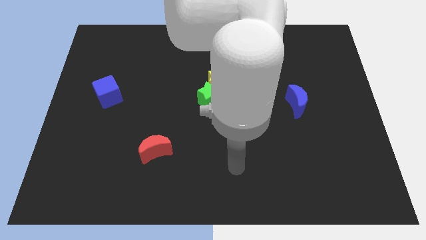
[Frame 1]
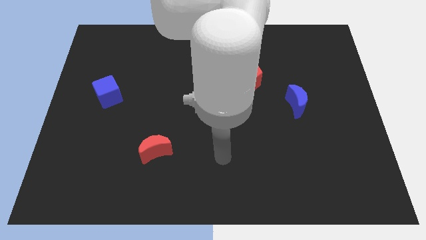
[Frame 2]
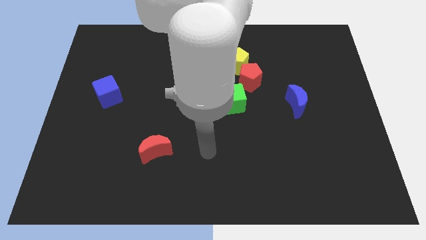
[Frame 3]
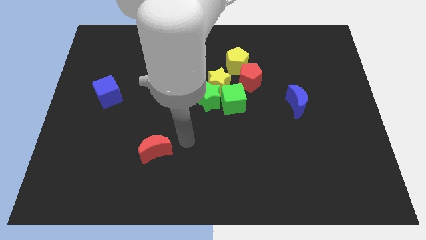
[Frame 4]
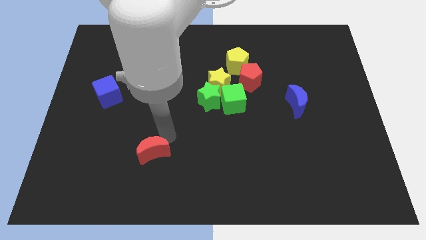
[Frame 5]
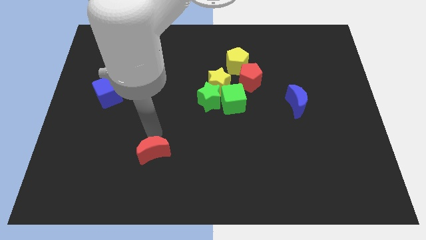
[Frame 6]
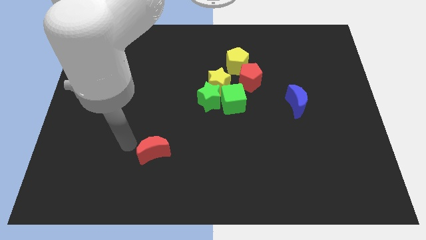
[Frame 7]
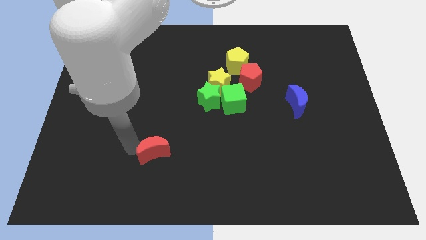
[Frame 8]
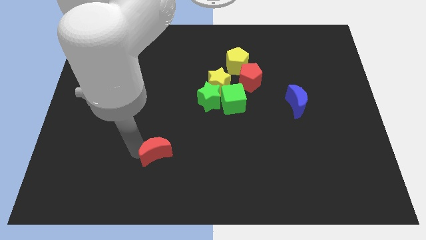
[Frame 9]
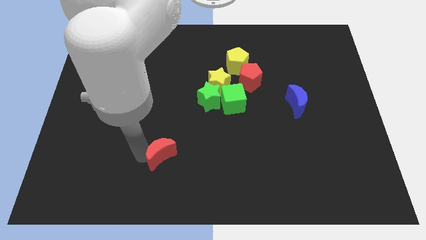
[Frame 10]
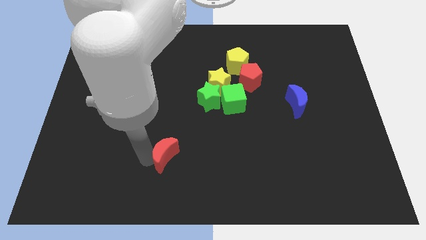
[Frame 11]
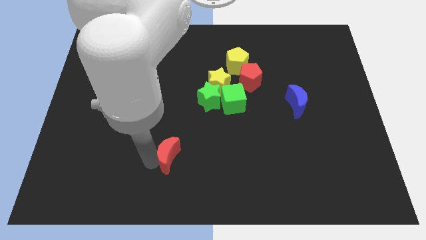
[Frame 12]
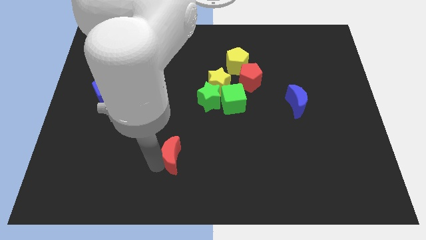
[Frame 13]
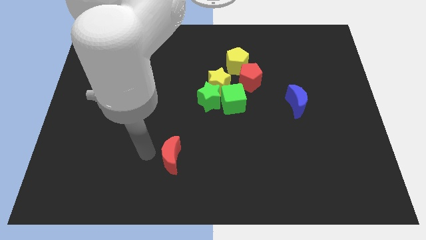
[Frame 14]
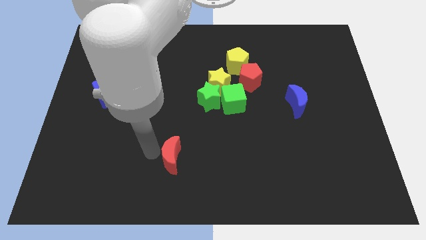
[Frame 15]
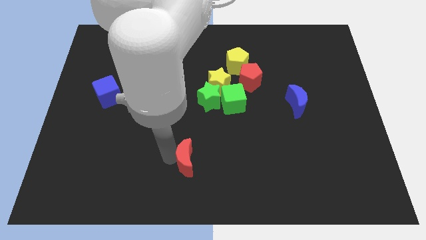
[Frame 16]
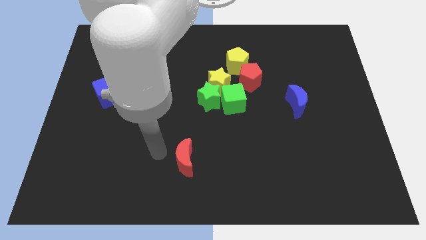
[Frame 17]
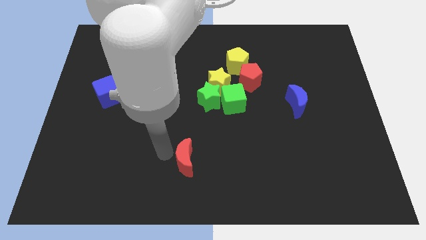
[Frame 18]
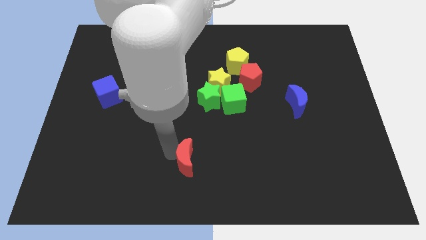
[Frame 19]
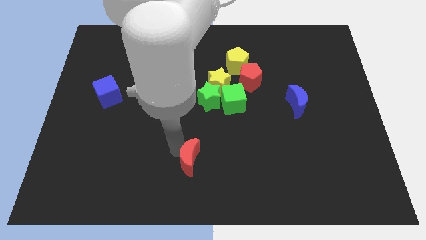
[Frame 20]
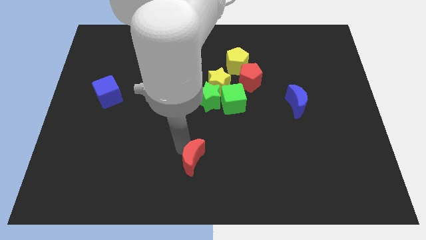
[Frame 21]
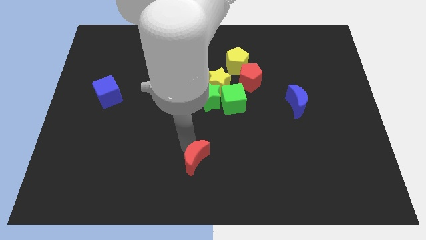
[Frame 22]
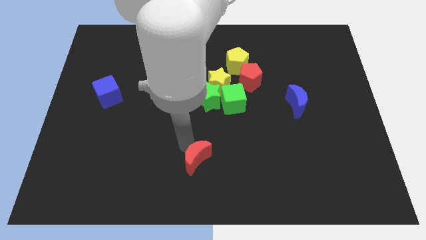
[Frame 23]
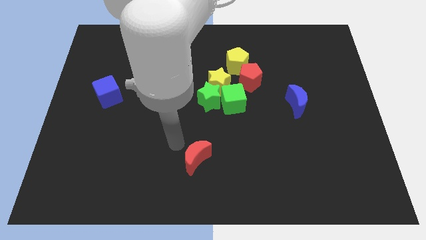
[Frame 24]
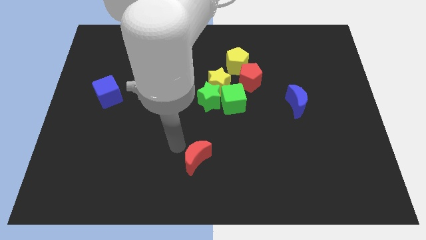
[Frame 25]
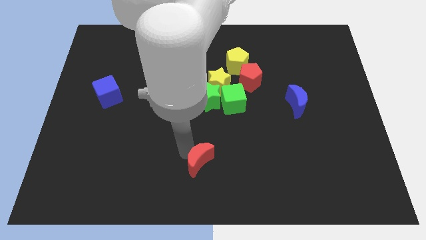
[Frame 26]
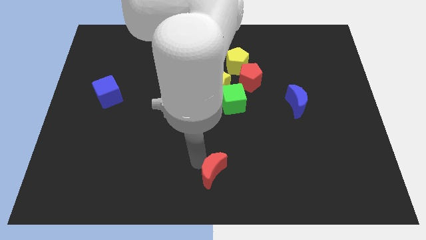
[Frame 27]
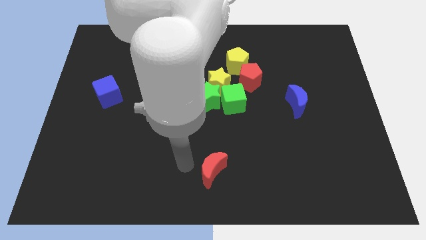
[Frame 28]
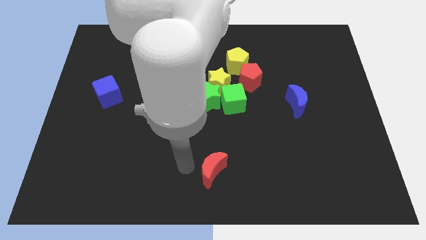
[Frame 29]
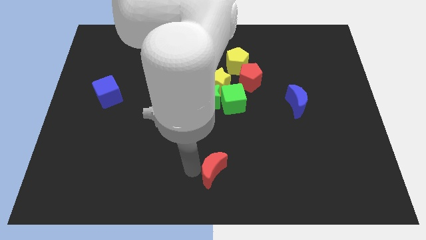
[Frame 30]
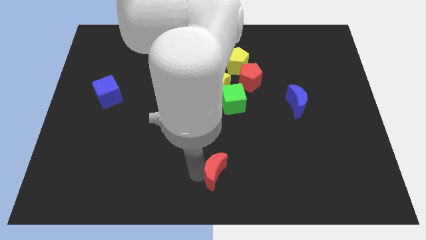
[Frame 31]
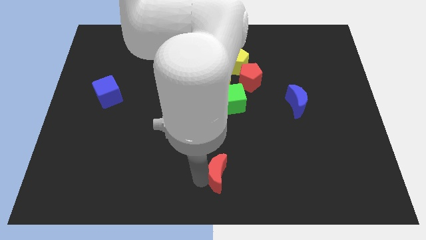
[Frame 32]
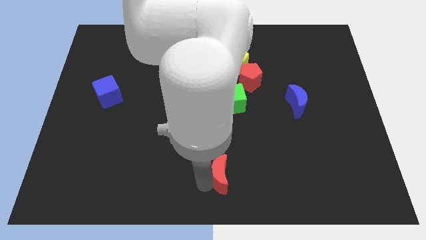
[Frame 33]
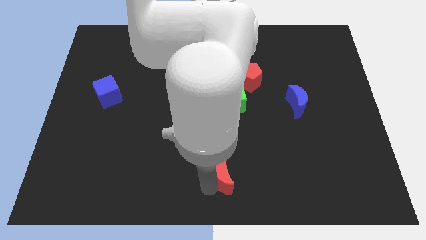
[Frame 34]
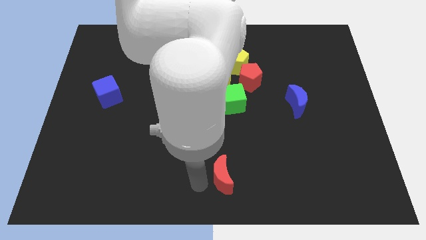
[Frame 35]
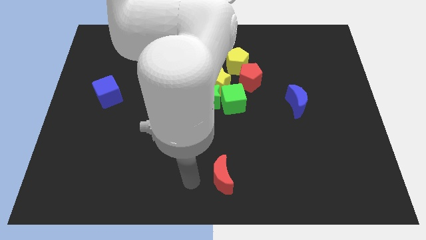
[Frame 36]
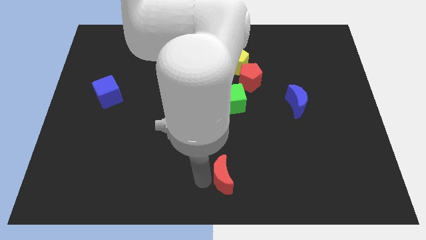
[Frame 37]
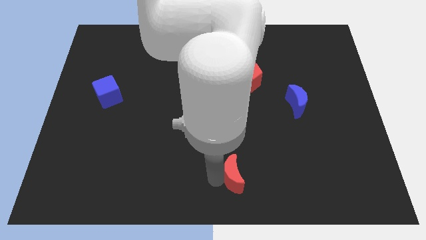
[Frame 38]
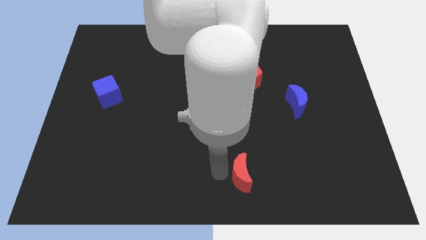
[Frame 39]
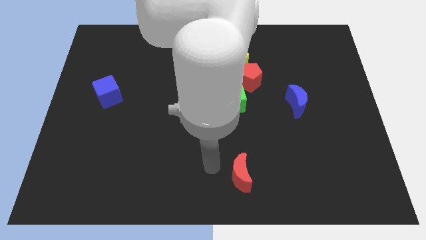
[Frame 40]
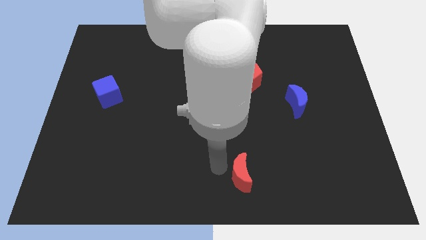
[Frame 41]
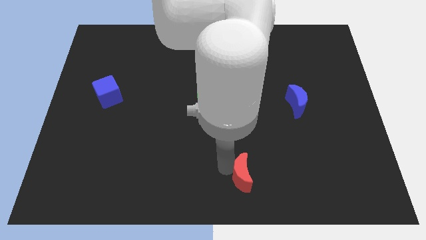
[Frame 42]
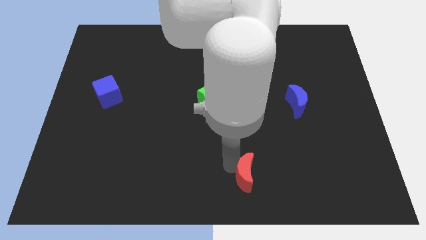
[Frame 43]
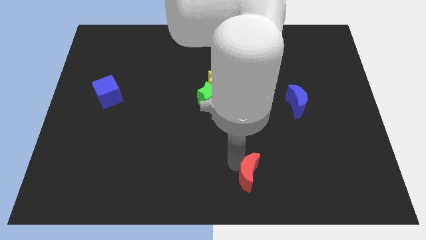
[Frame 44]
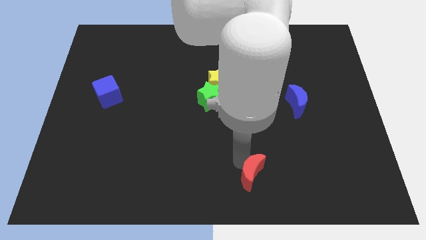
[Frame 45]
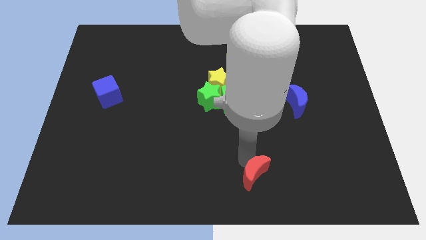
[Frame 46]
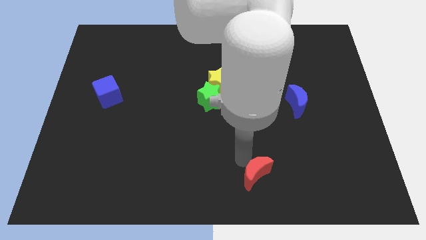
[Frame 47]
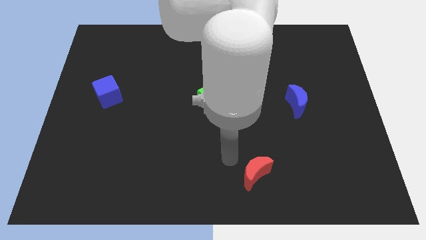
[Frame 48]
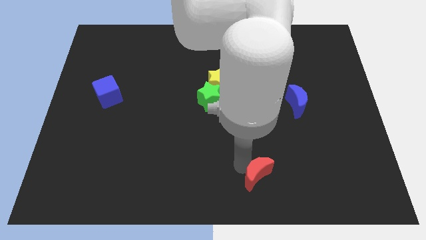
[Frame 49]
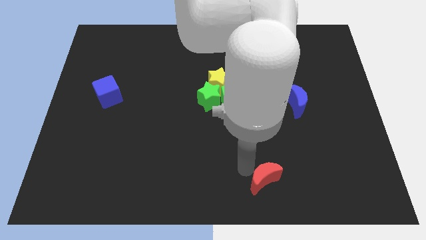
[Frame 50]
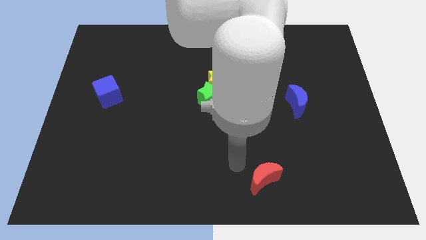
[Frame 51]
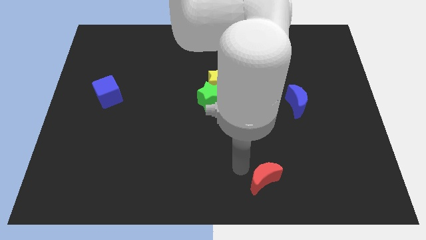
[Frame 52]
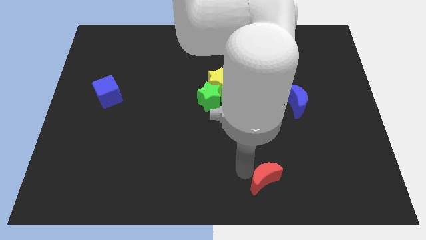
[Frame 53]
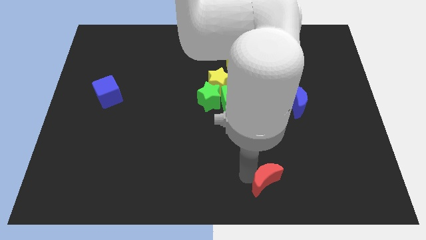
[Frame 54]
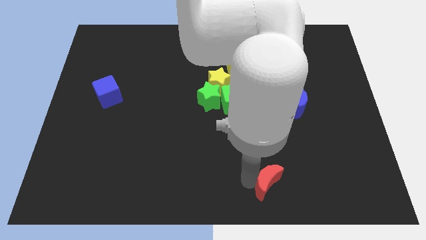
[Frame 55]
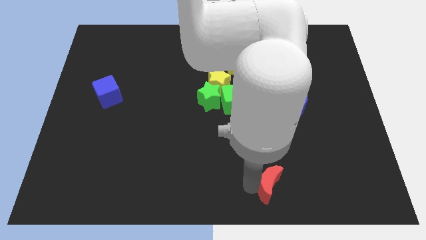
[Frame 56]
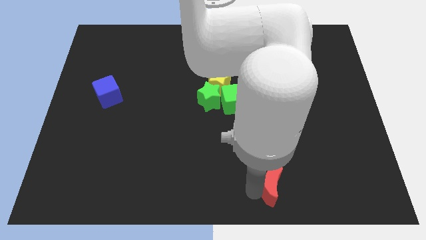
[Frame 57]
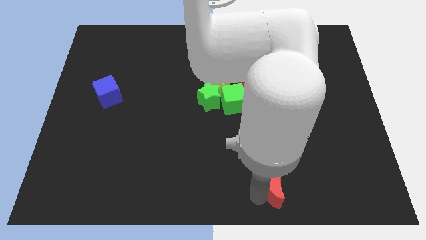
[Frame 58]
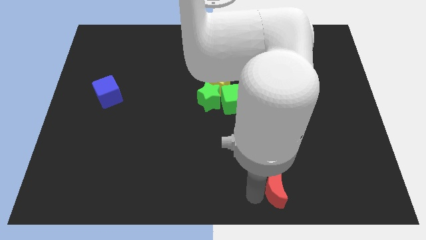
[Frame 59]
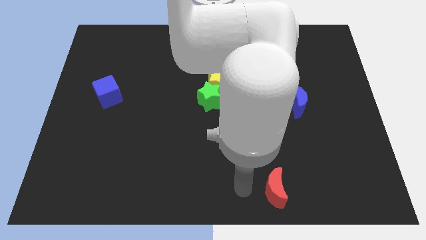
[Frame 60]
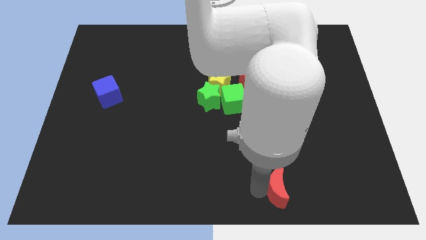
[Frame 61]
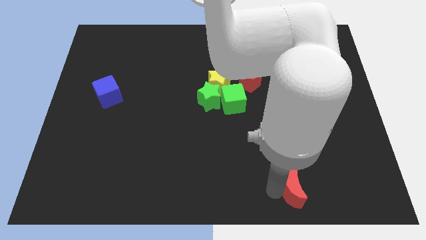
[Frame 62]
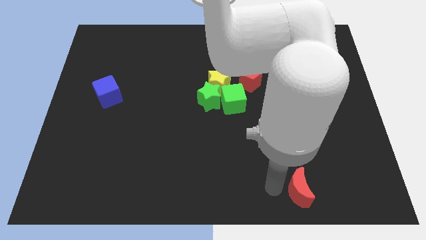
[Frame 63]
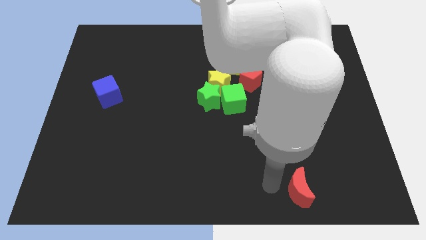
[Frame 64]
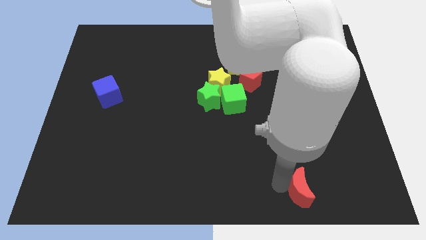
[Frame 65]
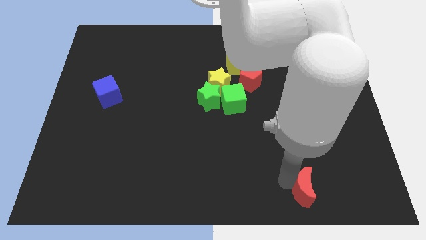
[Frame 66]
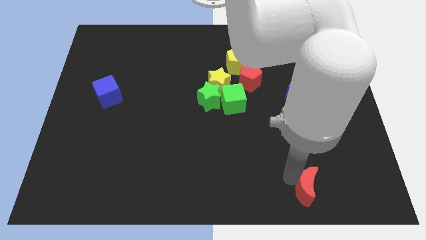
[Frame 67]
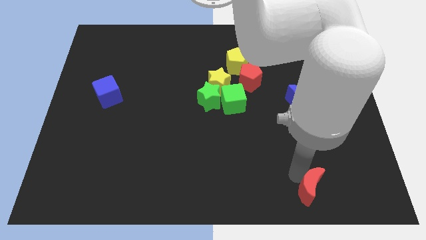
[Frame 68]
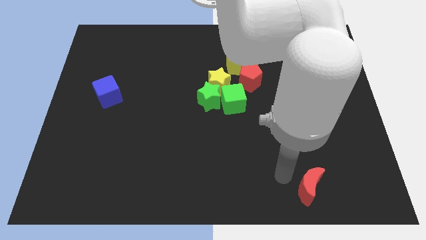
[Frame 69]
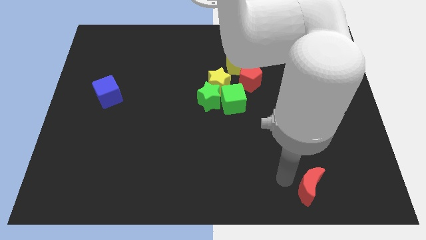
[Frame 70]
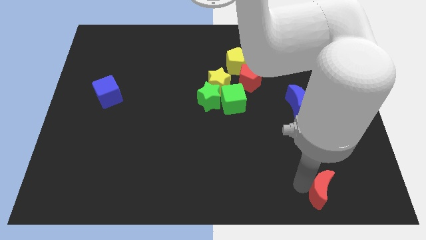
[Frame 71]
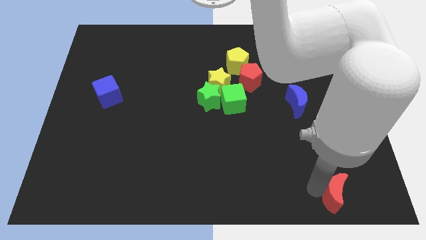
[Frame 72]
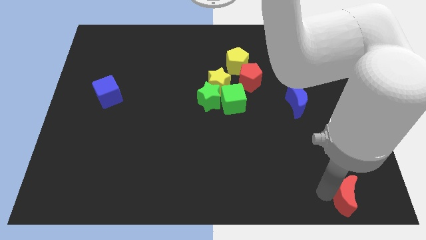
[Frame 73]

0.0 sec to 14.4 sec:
move the red moon to the lower right corner
